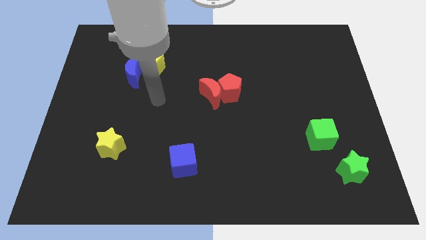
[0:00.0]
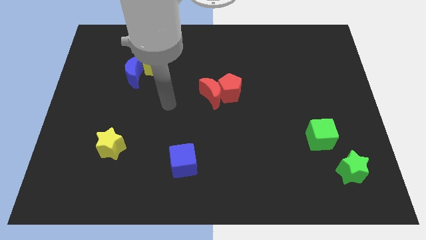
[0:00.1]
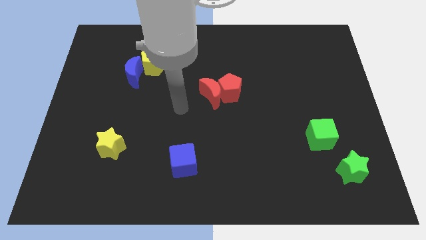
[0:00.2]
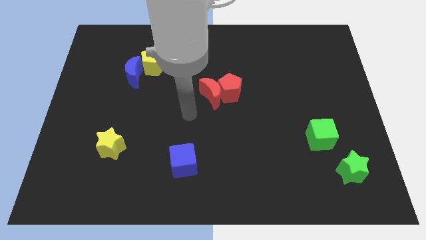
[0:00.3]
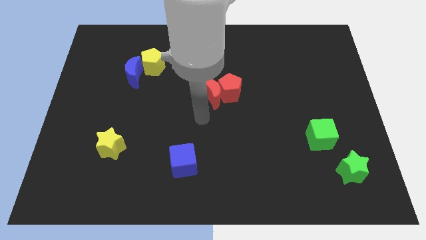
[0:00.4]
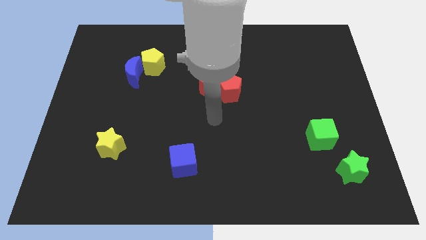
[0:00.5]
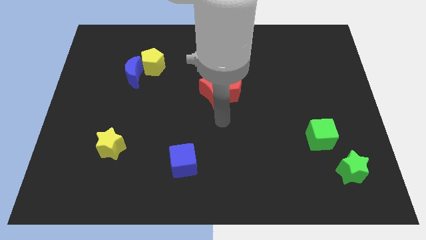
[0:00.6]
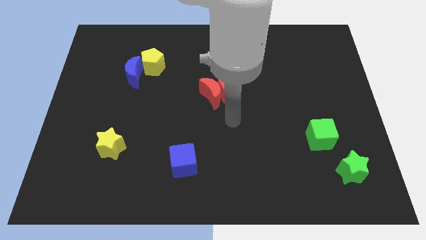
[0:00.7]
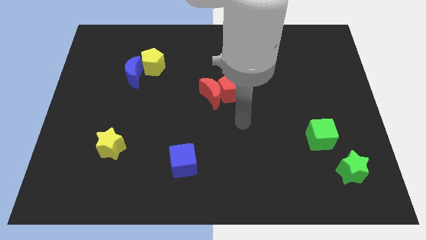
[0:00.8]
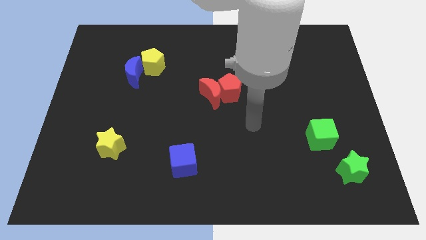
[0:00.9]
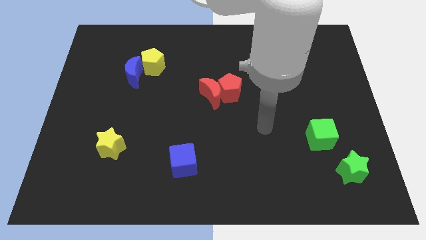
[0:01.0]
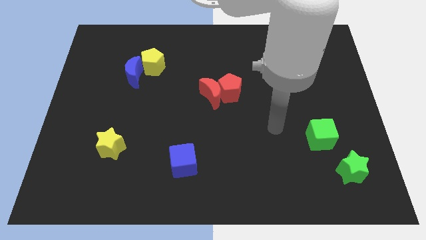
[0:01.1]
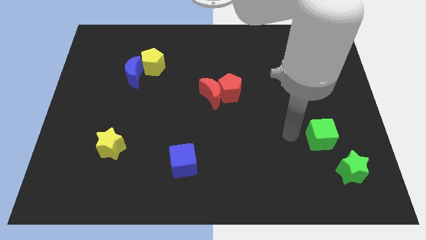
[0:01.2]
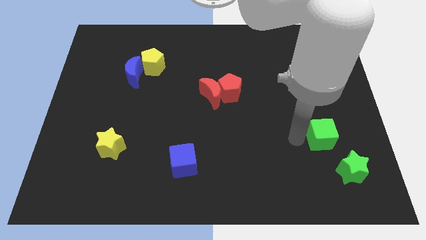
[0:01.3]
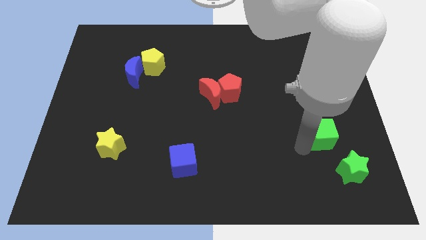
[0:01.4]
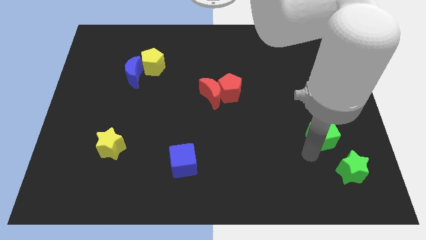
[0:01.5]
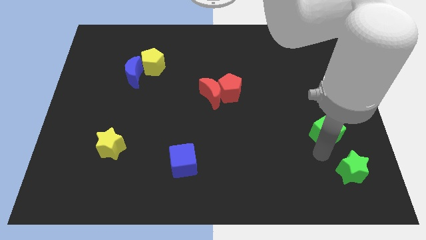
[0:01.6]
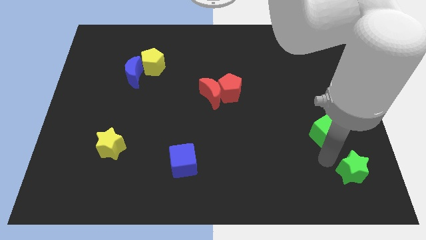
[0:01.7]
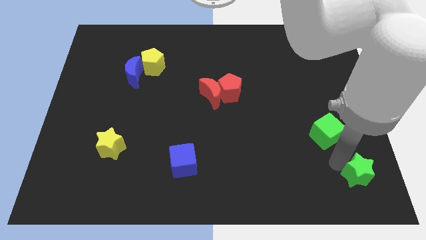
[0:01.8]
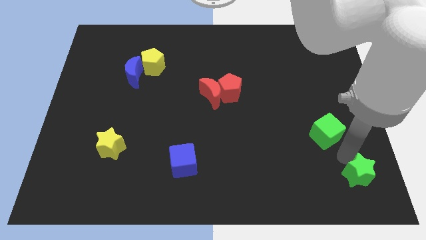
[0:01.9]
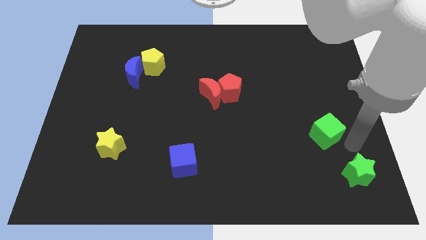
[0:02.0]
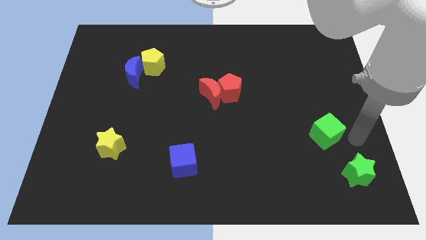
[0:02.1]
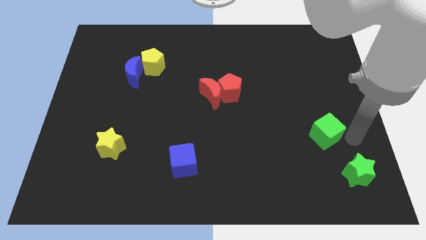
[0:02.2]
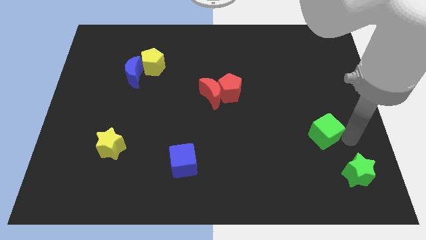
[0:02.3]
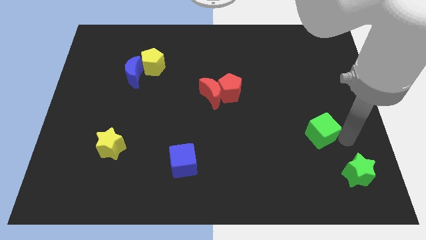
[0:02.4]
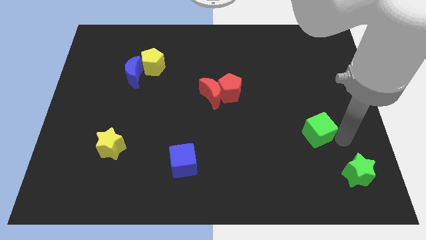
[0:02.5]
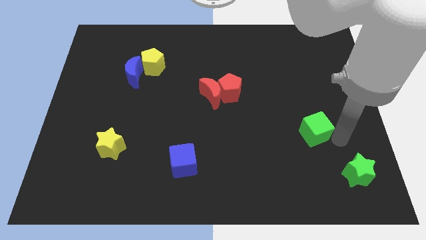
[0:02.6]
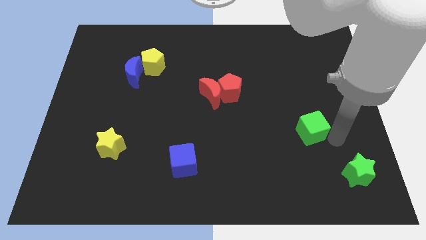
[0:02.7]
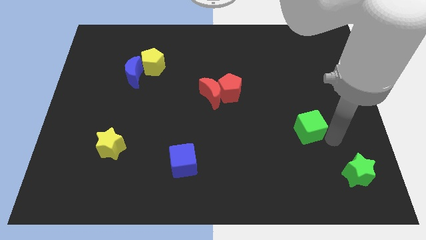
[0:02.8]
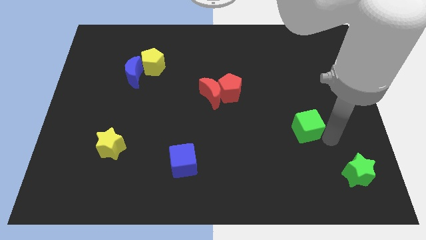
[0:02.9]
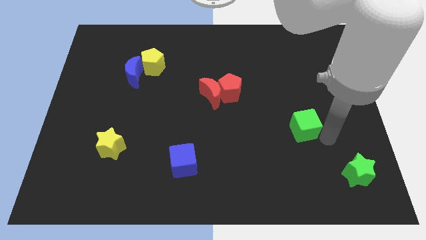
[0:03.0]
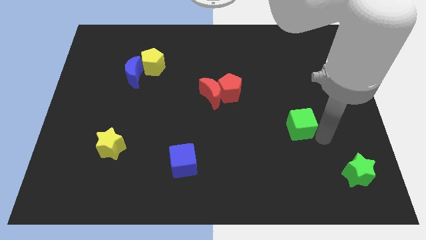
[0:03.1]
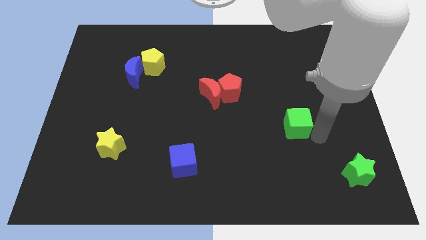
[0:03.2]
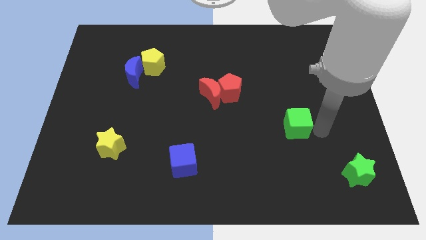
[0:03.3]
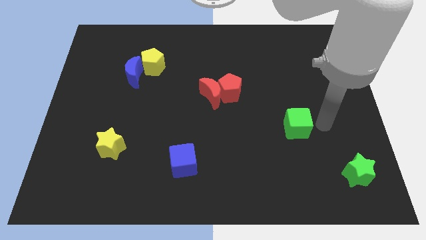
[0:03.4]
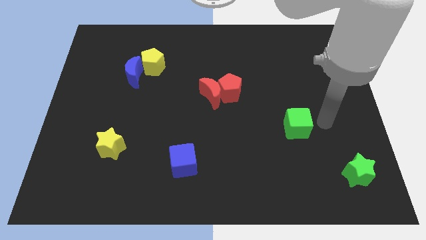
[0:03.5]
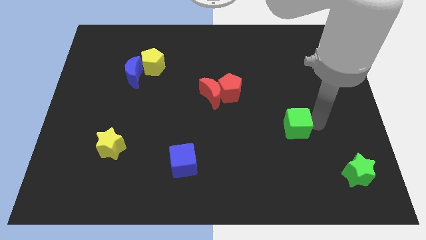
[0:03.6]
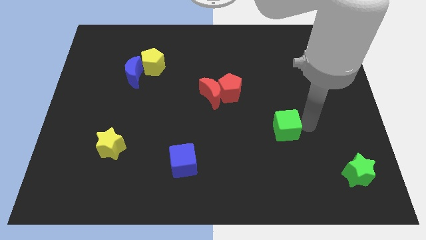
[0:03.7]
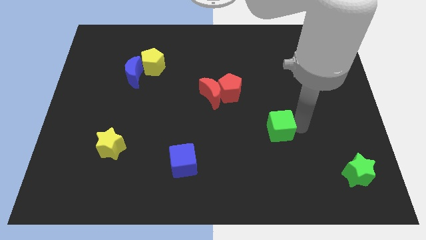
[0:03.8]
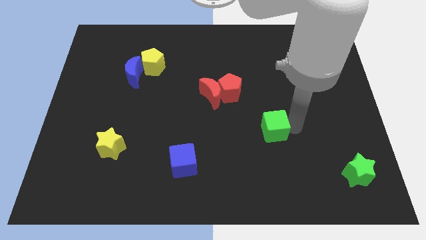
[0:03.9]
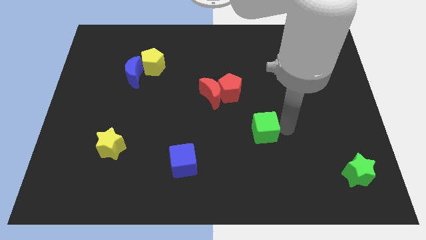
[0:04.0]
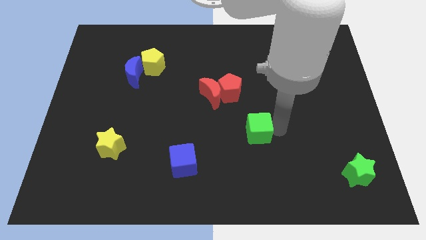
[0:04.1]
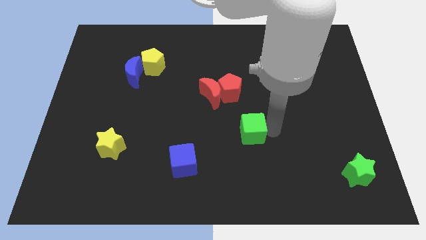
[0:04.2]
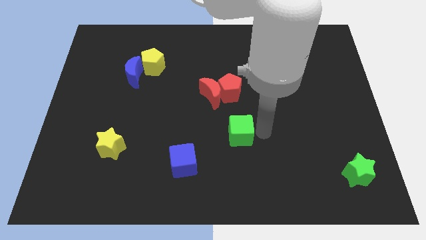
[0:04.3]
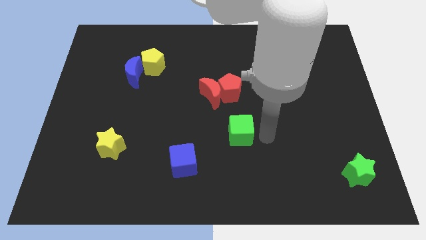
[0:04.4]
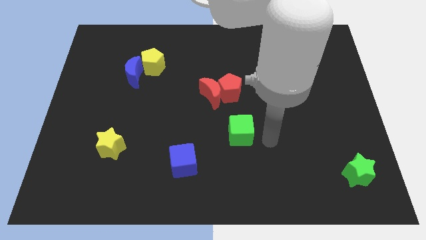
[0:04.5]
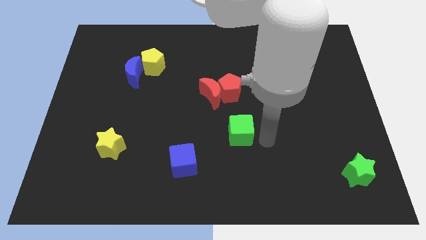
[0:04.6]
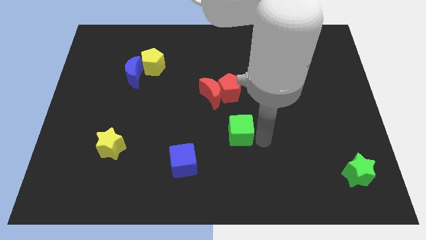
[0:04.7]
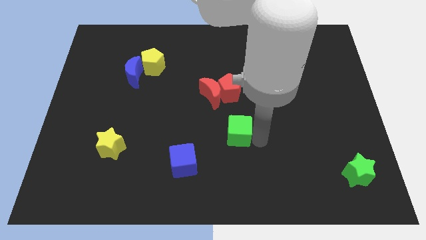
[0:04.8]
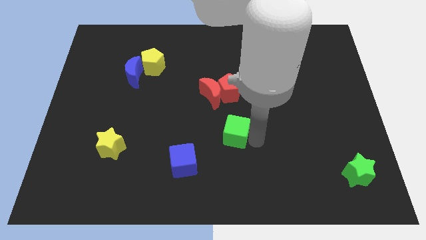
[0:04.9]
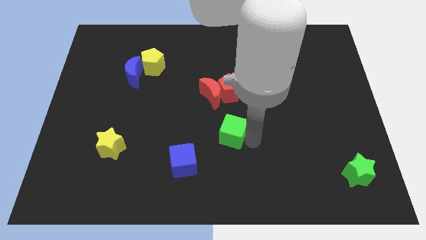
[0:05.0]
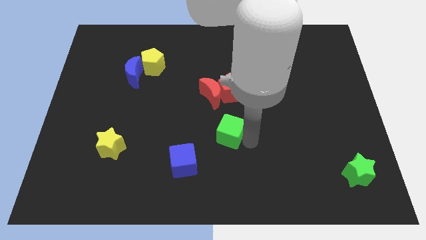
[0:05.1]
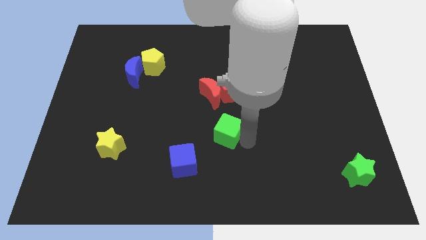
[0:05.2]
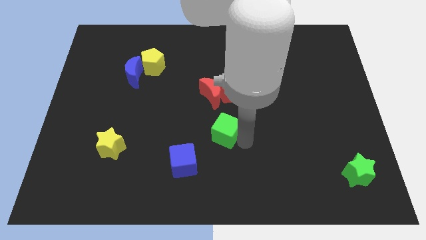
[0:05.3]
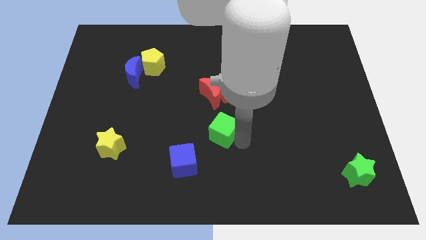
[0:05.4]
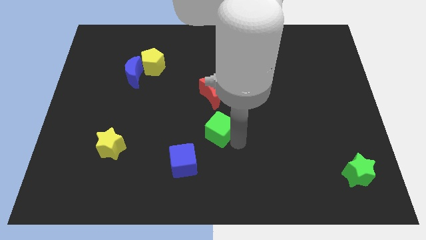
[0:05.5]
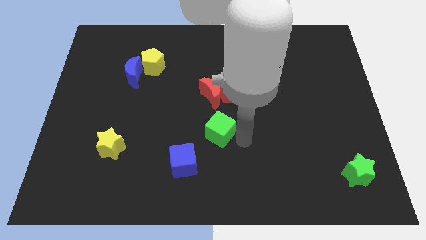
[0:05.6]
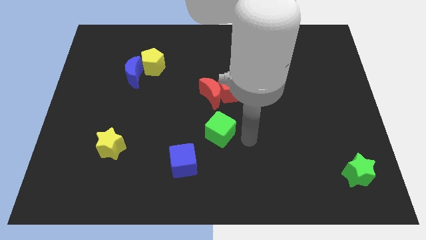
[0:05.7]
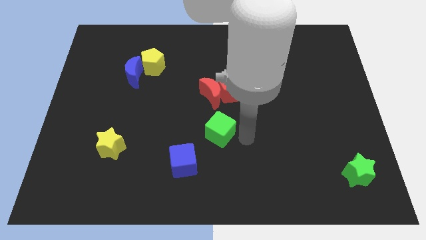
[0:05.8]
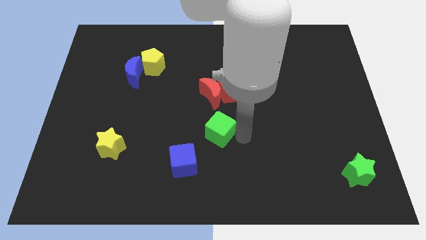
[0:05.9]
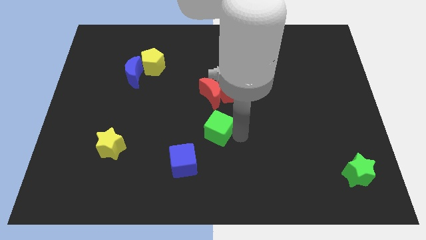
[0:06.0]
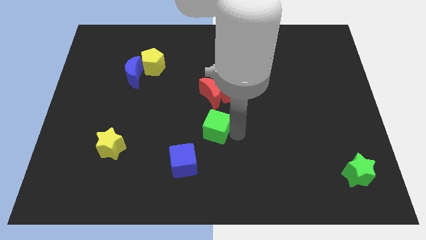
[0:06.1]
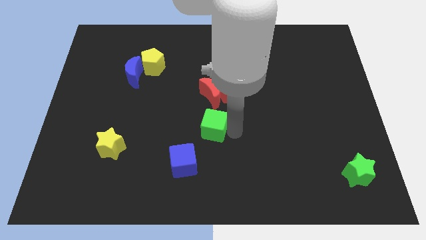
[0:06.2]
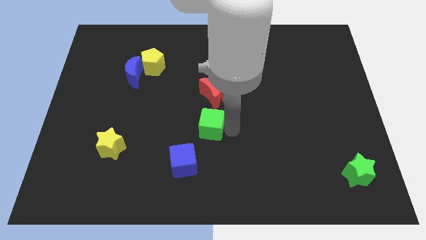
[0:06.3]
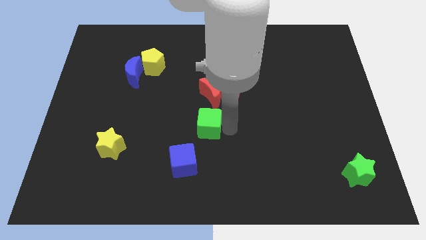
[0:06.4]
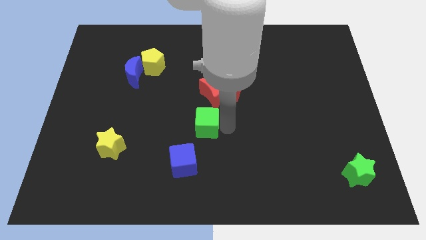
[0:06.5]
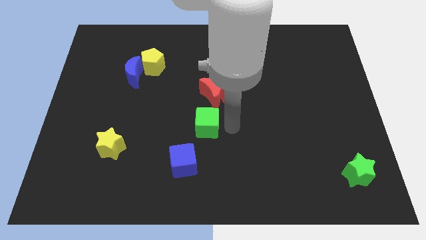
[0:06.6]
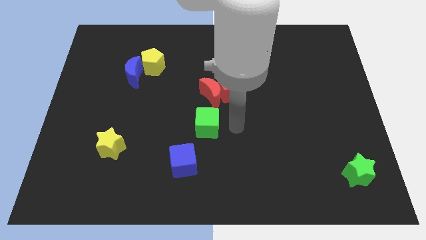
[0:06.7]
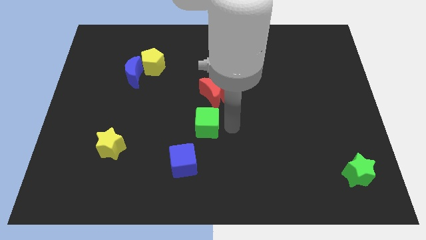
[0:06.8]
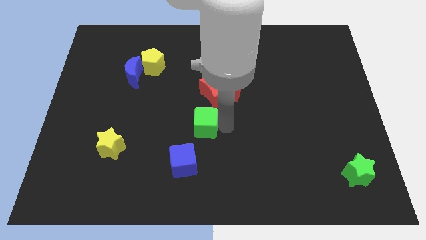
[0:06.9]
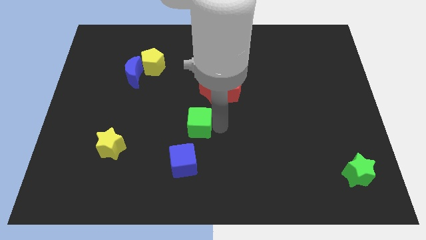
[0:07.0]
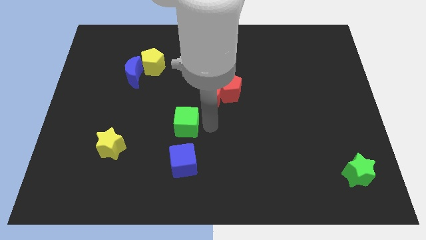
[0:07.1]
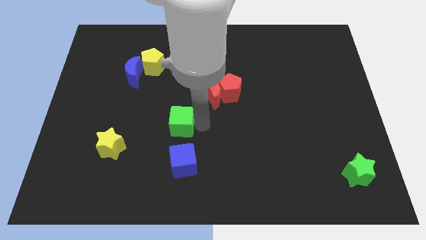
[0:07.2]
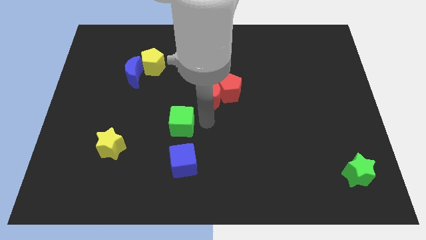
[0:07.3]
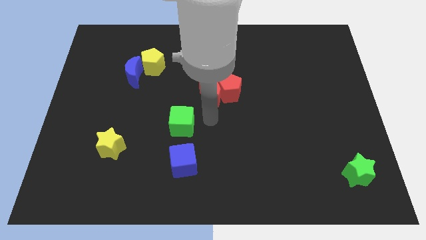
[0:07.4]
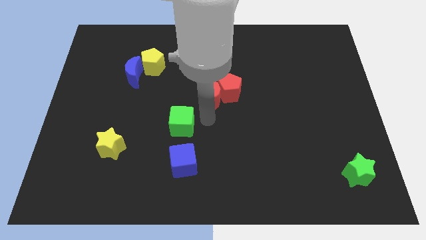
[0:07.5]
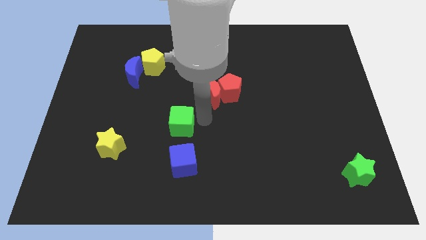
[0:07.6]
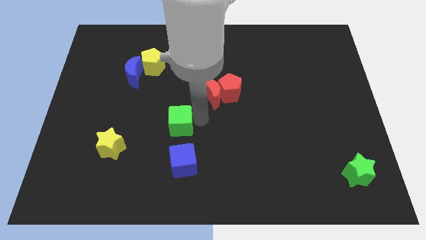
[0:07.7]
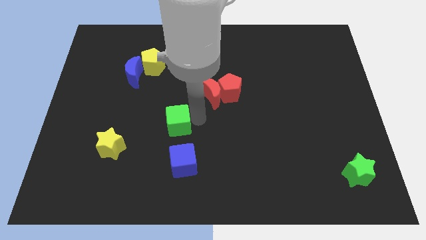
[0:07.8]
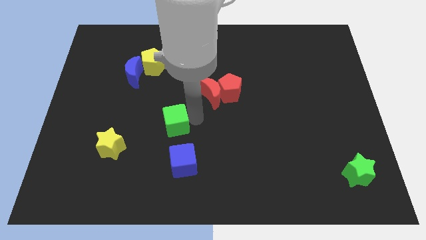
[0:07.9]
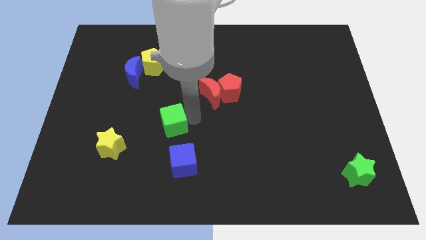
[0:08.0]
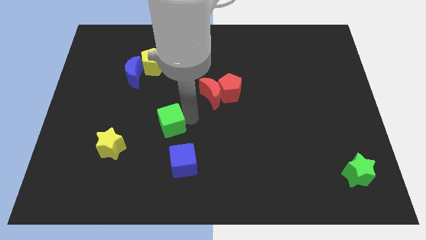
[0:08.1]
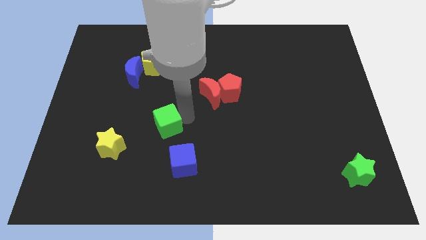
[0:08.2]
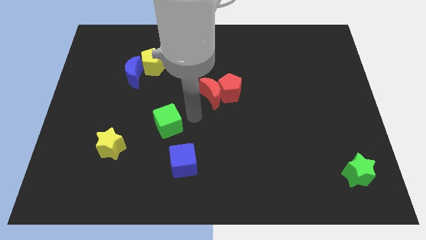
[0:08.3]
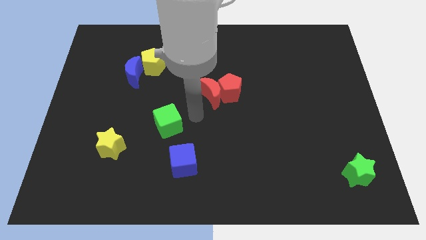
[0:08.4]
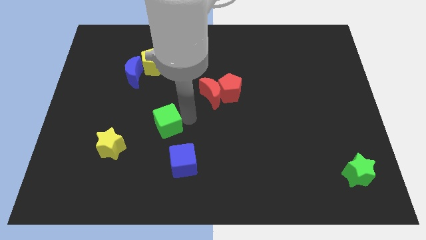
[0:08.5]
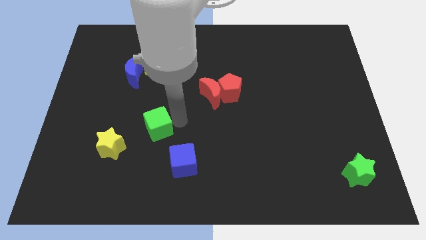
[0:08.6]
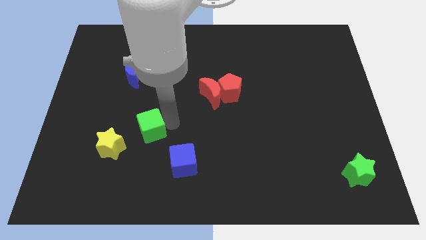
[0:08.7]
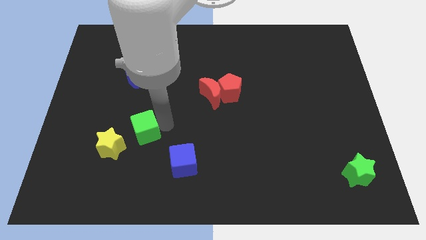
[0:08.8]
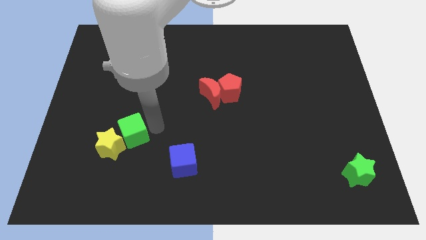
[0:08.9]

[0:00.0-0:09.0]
move the green cube to the yellow star
